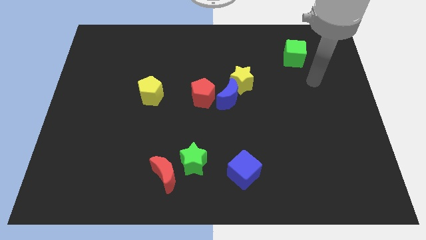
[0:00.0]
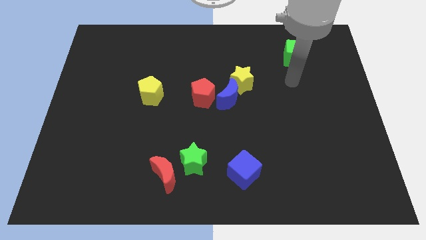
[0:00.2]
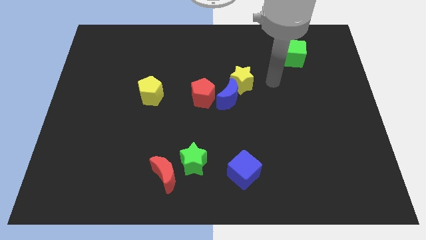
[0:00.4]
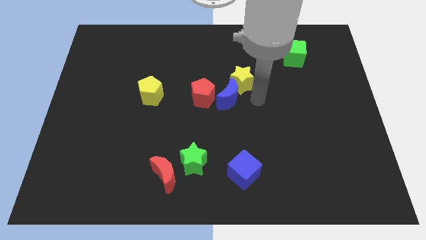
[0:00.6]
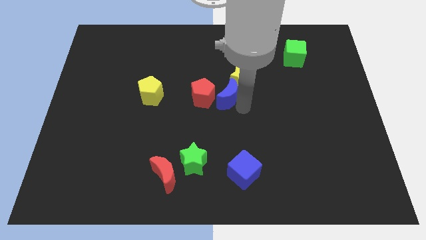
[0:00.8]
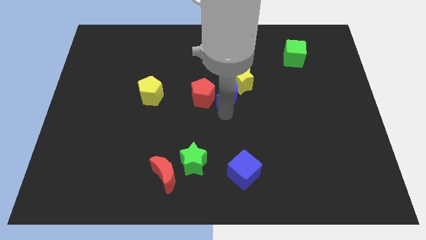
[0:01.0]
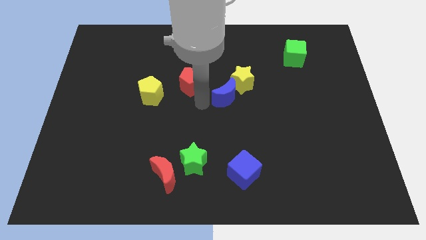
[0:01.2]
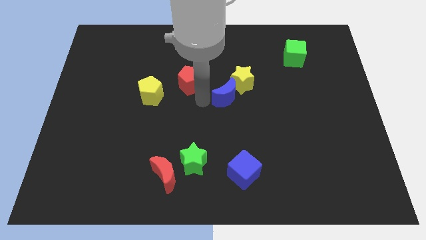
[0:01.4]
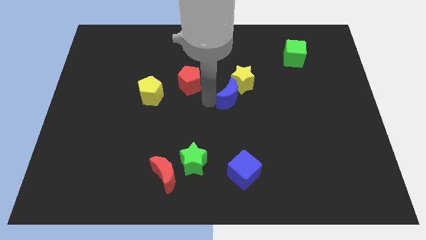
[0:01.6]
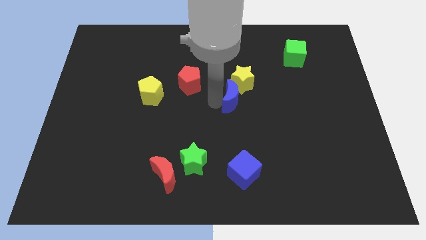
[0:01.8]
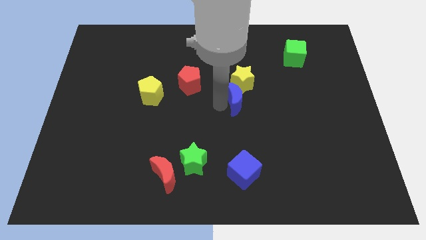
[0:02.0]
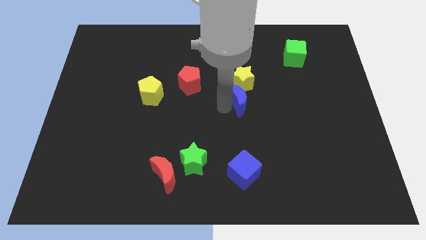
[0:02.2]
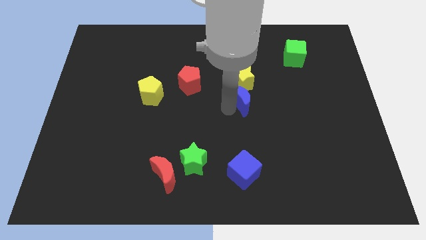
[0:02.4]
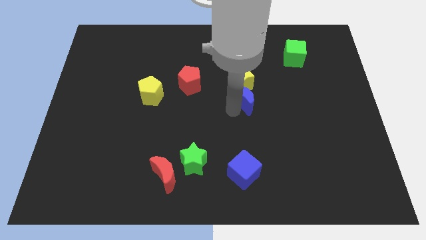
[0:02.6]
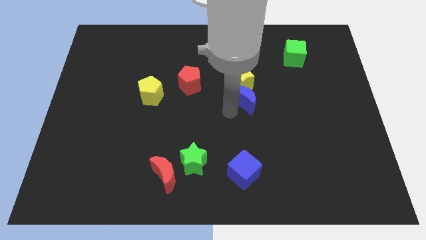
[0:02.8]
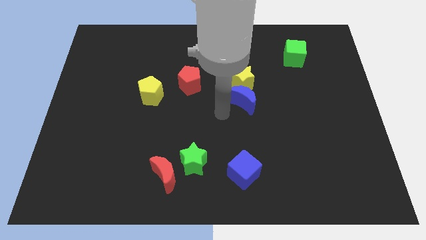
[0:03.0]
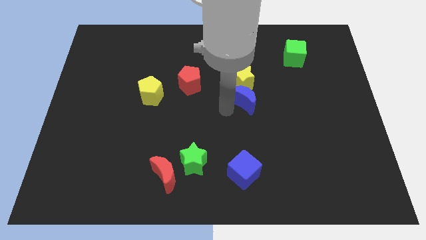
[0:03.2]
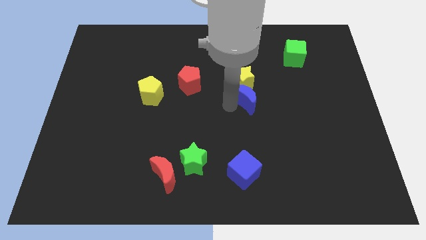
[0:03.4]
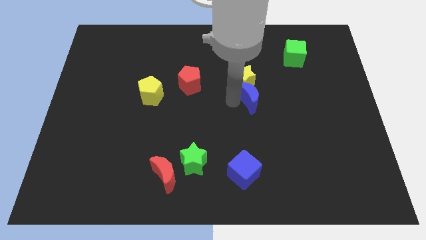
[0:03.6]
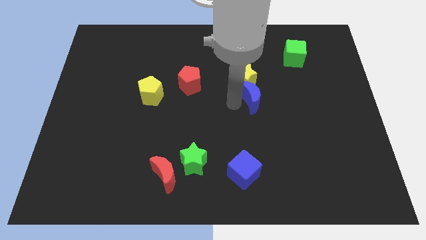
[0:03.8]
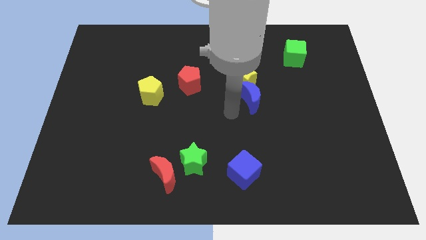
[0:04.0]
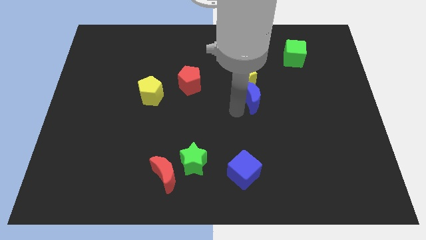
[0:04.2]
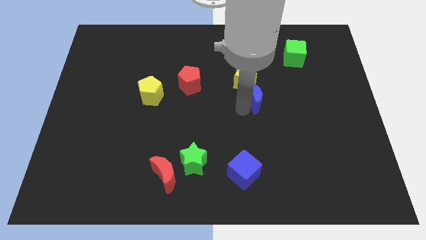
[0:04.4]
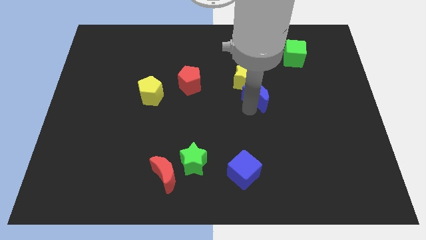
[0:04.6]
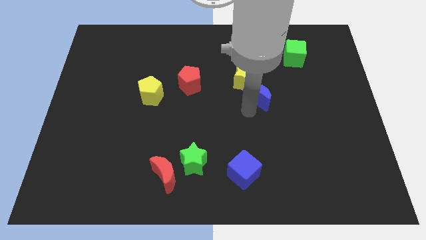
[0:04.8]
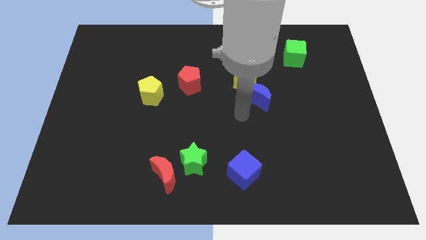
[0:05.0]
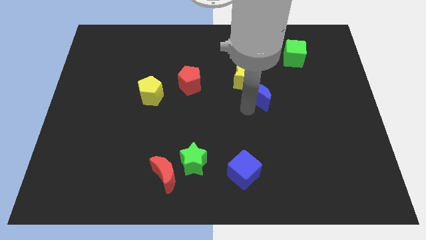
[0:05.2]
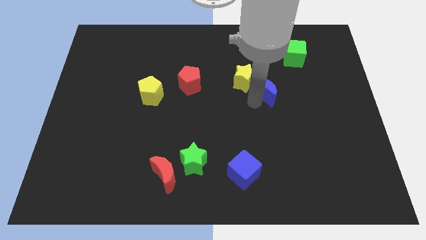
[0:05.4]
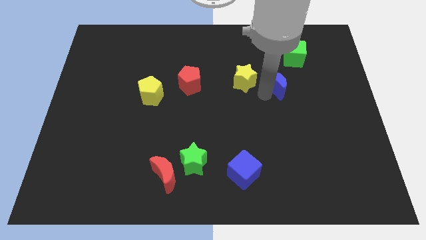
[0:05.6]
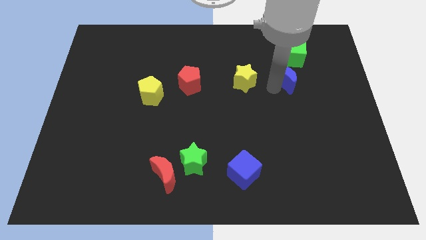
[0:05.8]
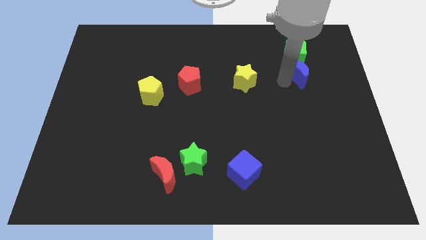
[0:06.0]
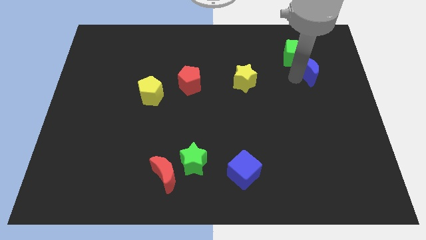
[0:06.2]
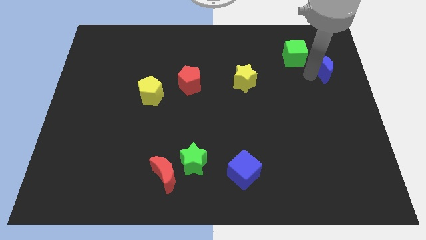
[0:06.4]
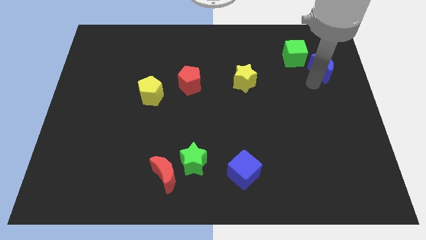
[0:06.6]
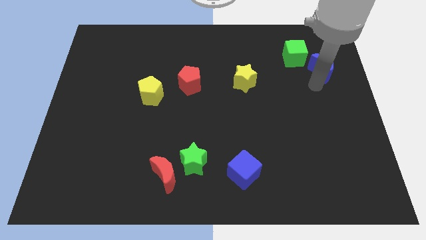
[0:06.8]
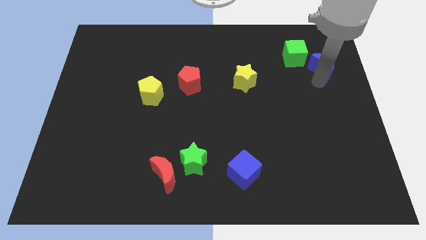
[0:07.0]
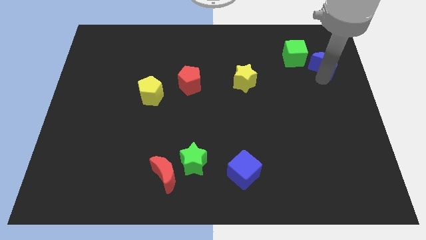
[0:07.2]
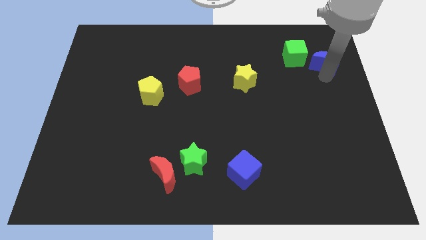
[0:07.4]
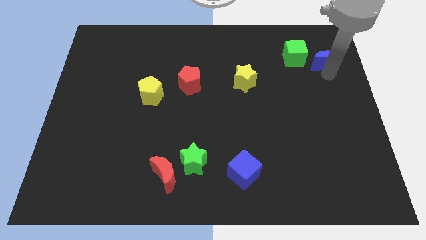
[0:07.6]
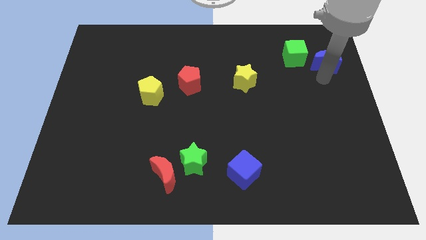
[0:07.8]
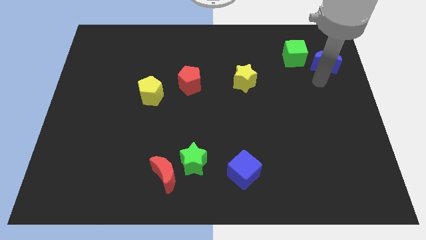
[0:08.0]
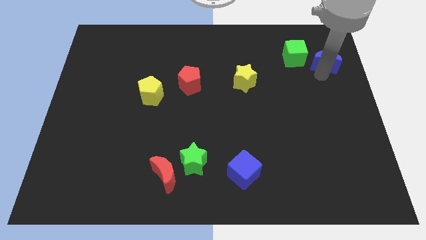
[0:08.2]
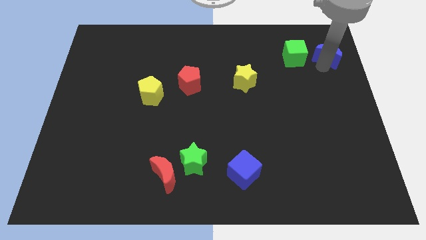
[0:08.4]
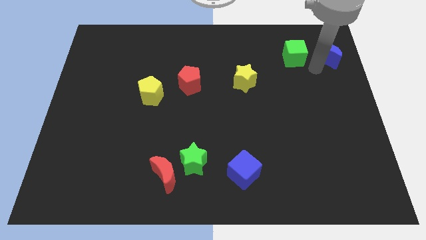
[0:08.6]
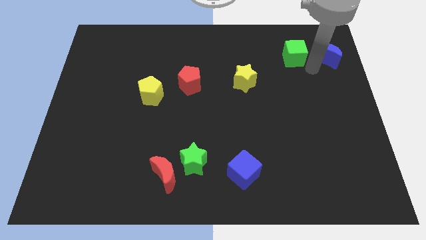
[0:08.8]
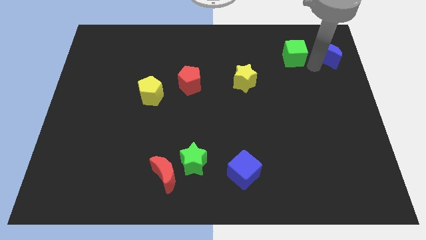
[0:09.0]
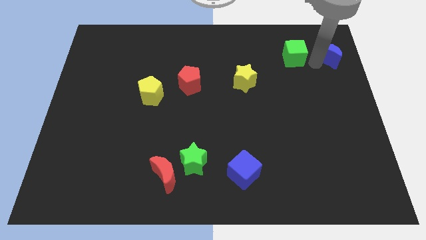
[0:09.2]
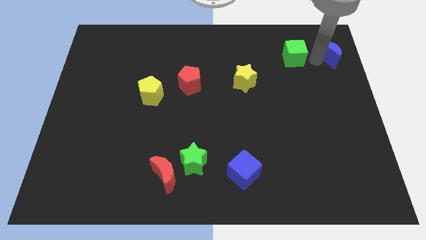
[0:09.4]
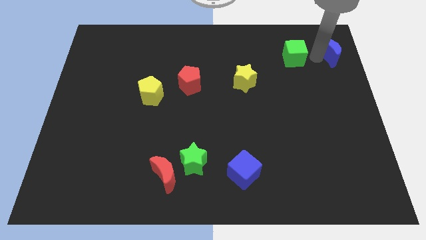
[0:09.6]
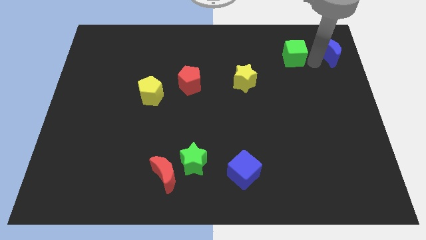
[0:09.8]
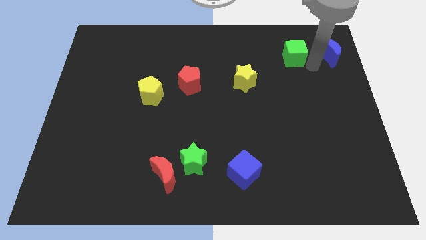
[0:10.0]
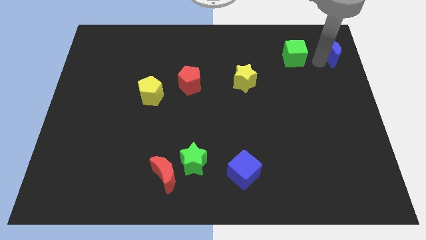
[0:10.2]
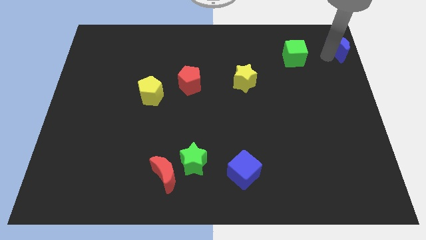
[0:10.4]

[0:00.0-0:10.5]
move the blue moon to the top right of the board

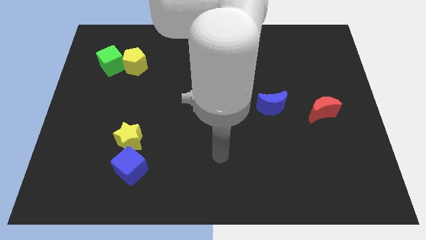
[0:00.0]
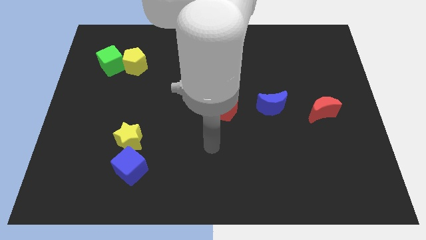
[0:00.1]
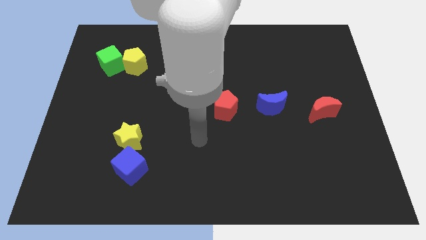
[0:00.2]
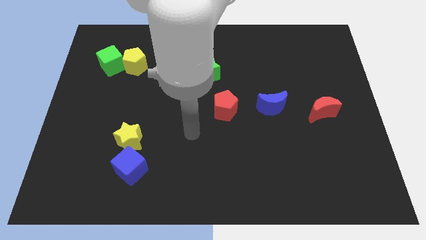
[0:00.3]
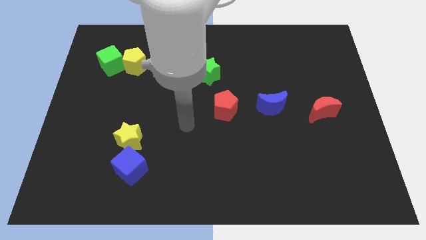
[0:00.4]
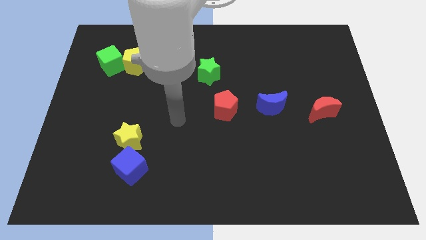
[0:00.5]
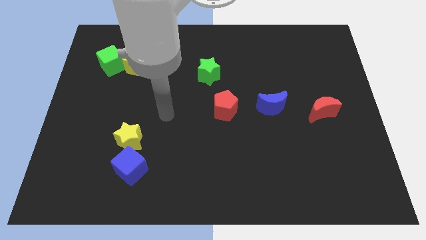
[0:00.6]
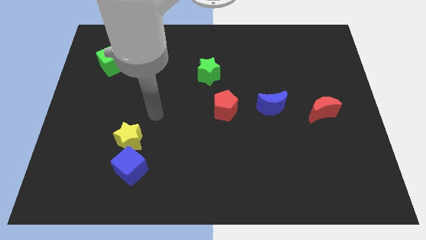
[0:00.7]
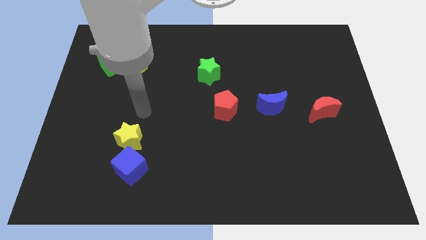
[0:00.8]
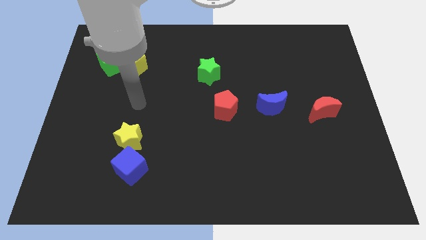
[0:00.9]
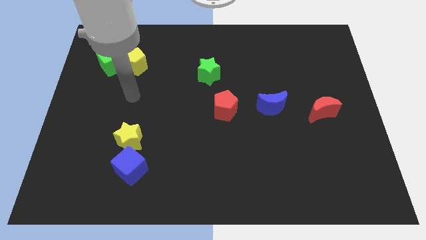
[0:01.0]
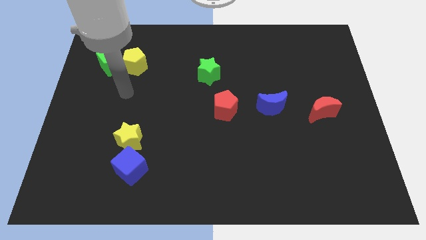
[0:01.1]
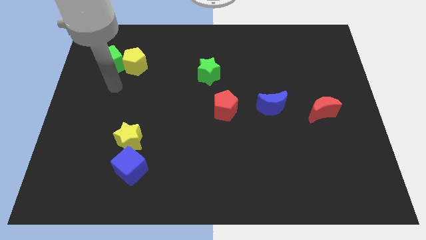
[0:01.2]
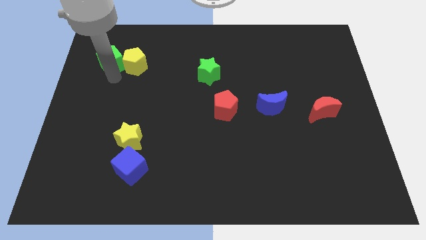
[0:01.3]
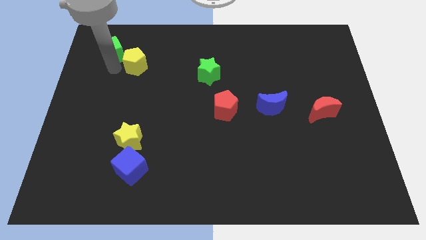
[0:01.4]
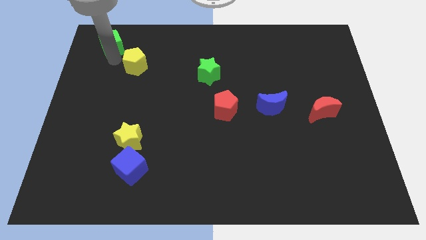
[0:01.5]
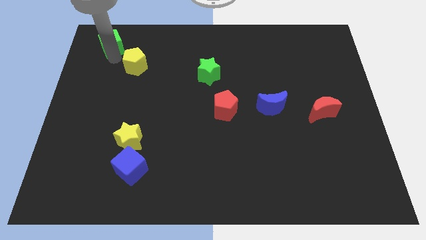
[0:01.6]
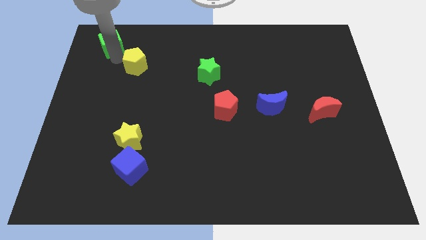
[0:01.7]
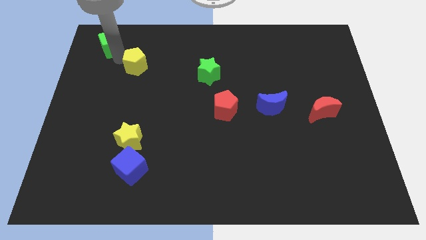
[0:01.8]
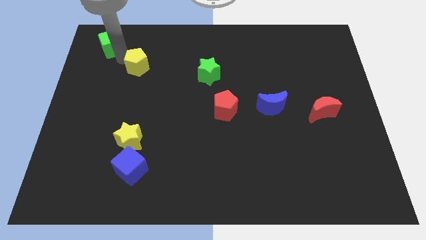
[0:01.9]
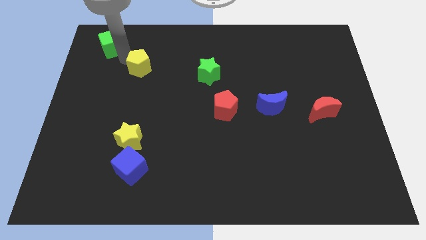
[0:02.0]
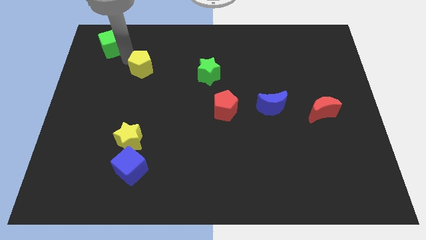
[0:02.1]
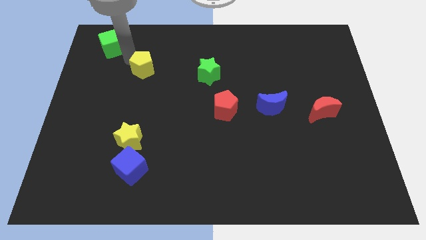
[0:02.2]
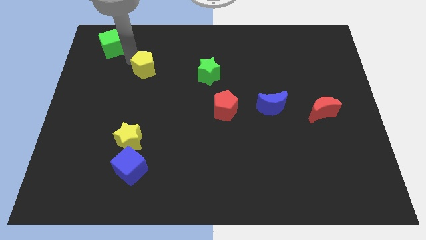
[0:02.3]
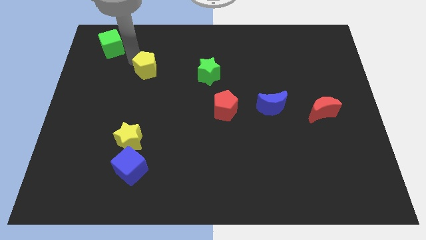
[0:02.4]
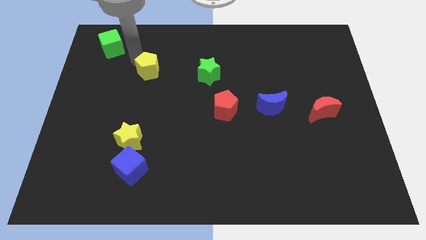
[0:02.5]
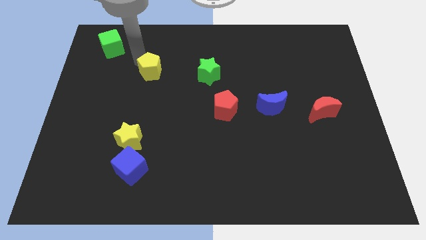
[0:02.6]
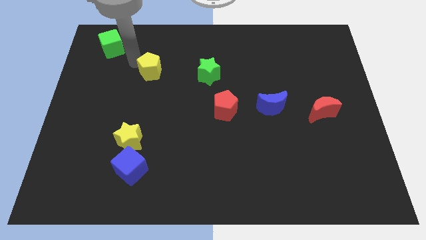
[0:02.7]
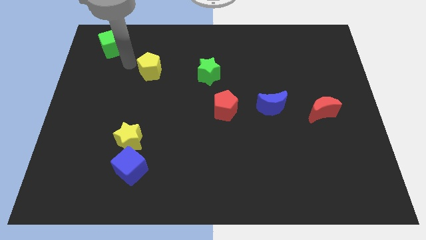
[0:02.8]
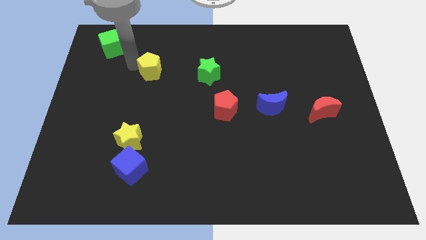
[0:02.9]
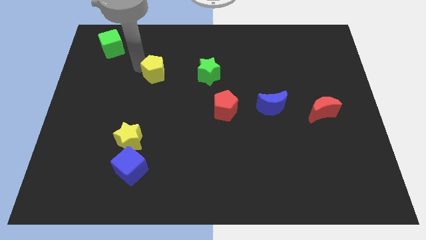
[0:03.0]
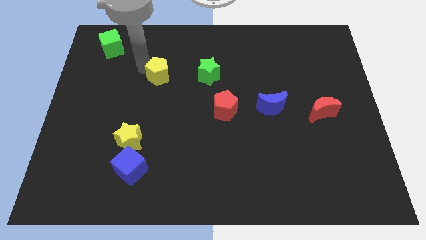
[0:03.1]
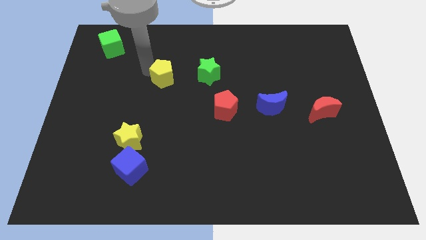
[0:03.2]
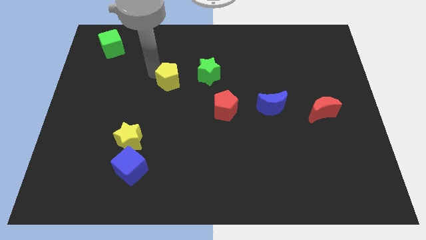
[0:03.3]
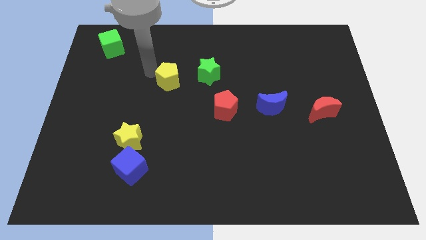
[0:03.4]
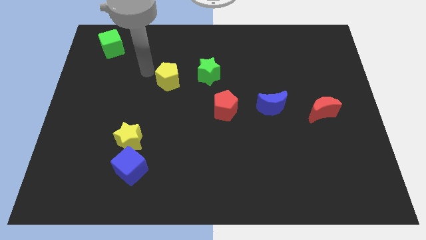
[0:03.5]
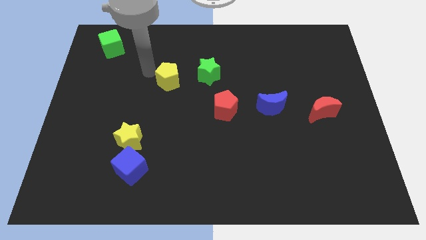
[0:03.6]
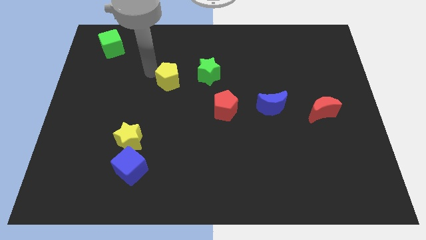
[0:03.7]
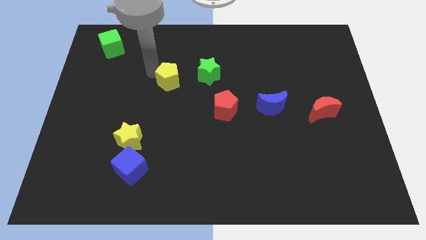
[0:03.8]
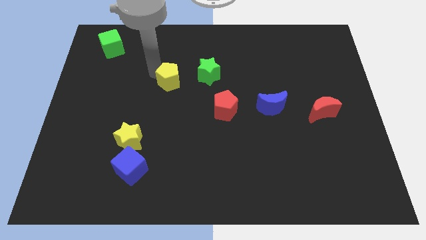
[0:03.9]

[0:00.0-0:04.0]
slide the yellow pentagon to the center of the board
